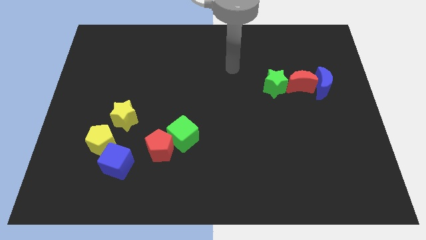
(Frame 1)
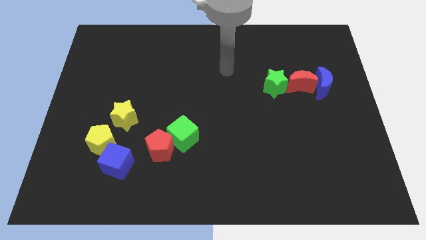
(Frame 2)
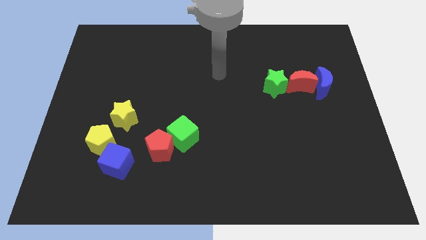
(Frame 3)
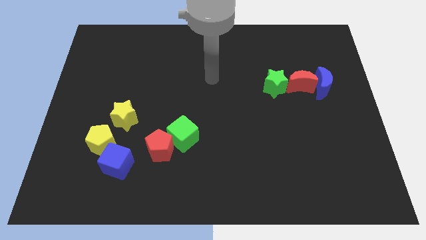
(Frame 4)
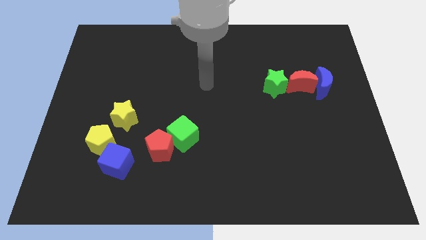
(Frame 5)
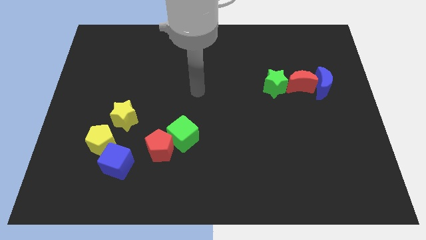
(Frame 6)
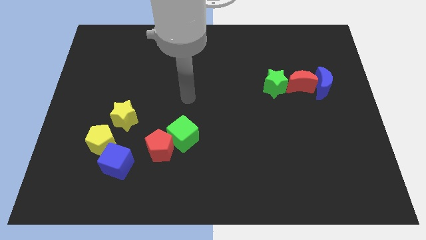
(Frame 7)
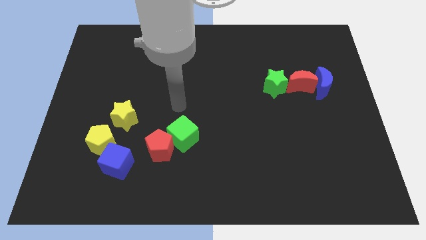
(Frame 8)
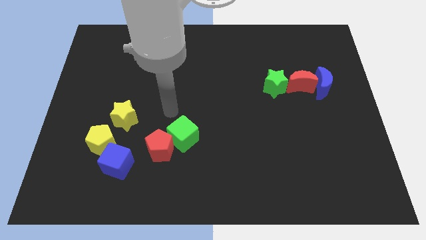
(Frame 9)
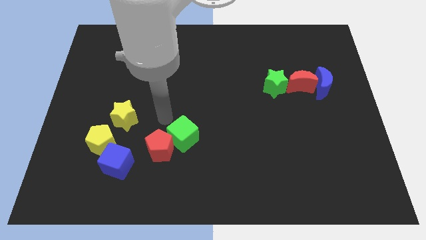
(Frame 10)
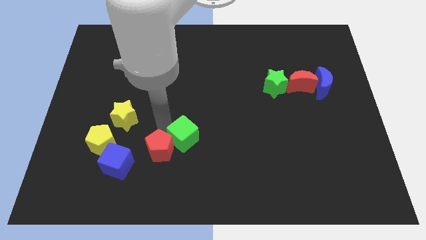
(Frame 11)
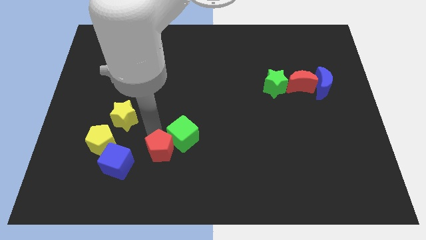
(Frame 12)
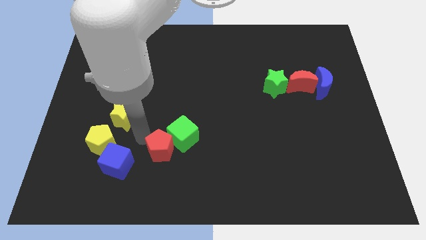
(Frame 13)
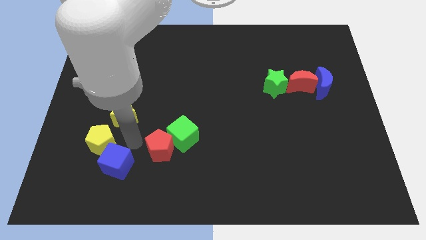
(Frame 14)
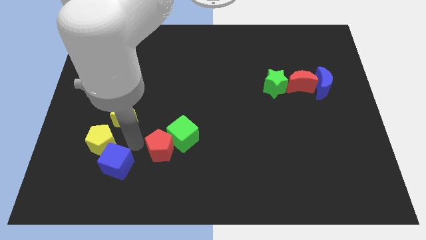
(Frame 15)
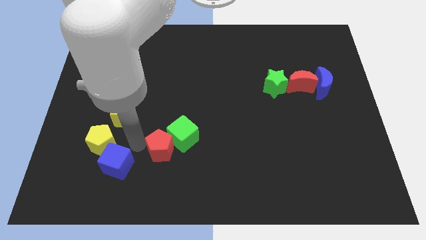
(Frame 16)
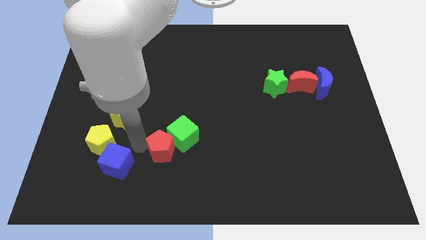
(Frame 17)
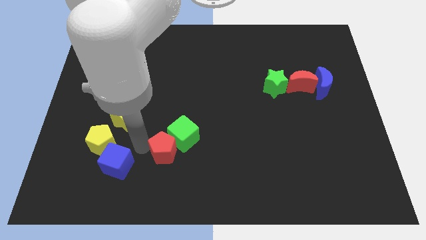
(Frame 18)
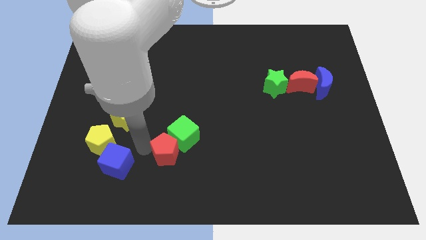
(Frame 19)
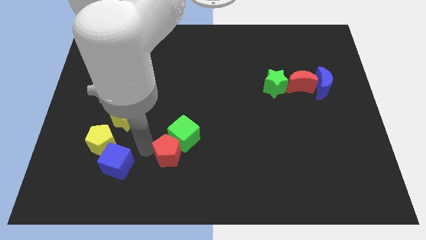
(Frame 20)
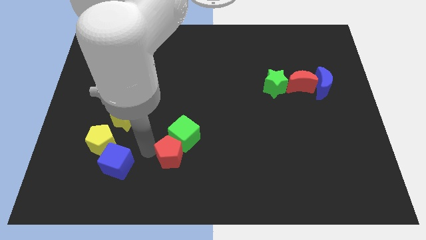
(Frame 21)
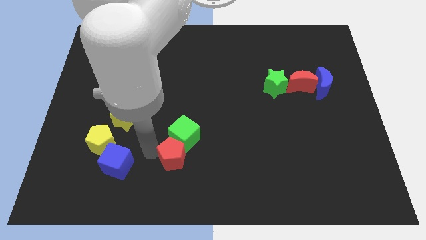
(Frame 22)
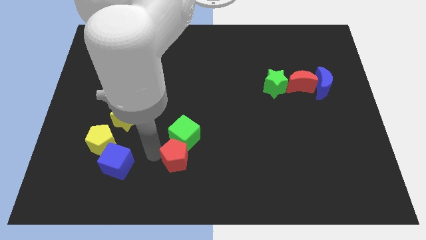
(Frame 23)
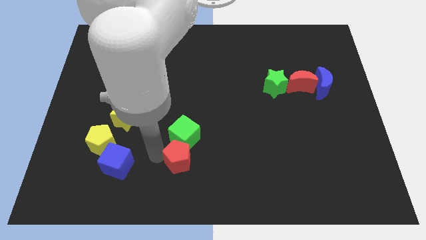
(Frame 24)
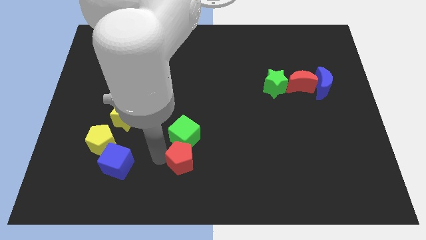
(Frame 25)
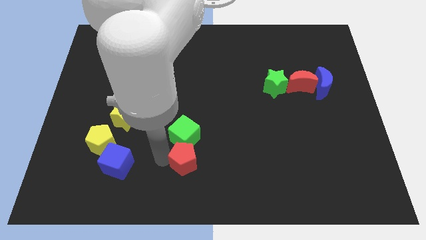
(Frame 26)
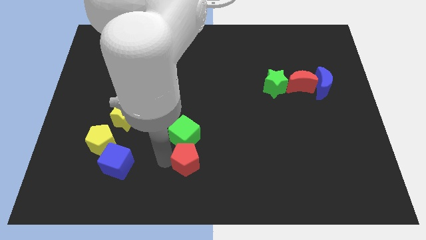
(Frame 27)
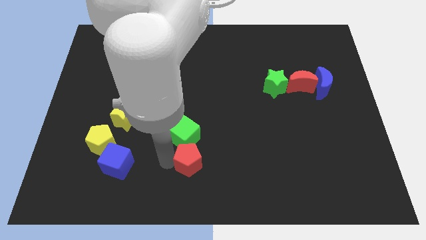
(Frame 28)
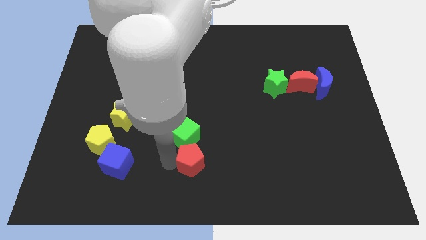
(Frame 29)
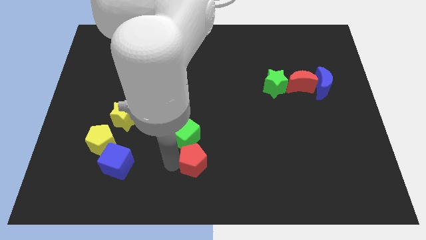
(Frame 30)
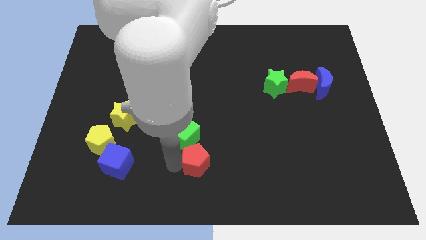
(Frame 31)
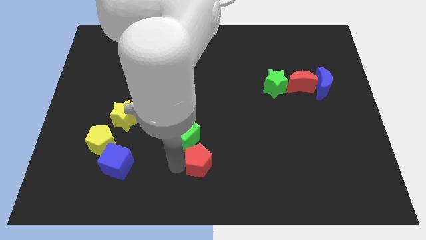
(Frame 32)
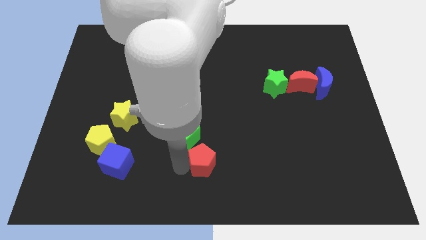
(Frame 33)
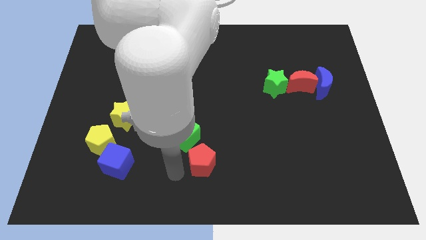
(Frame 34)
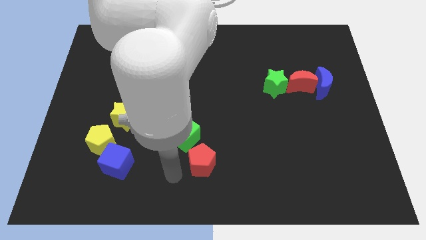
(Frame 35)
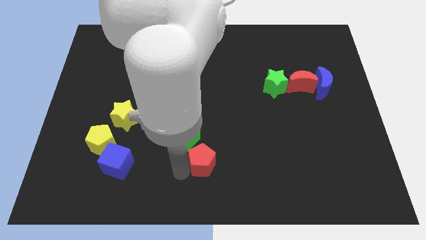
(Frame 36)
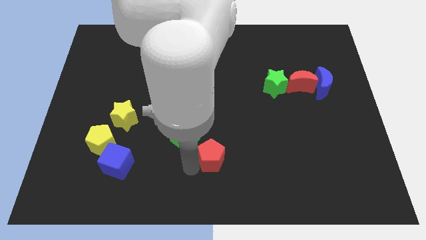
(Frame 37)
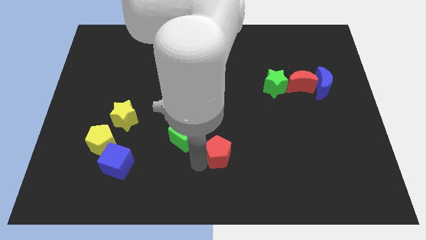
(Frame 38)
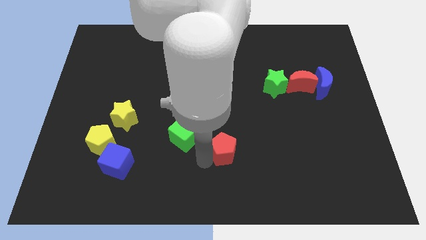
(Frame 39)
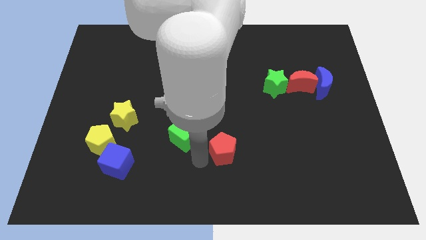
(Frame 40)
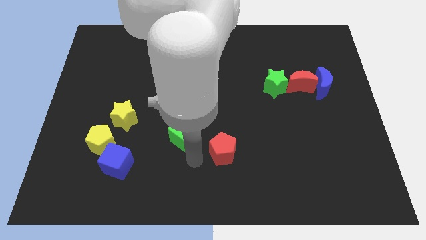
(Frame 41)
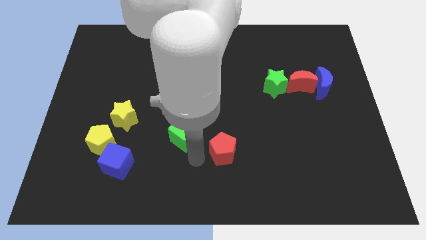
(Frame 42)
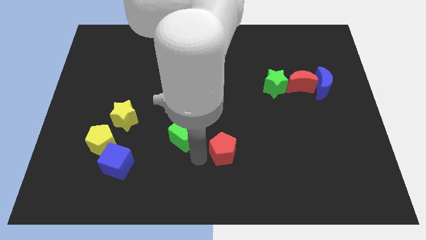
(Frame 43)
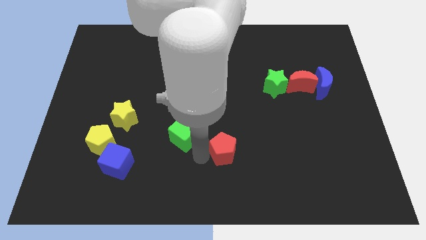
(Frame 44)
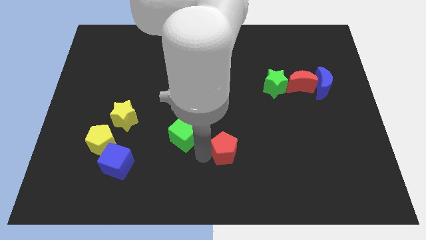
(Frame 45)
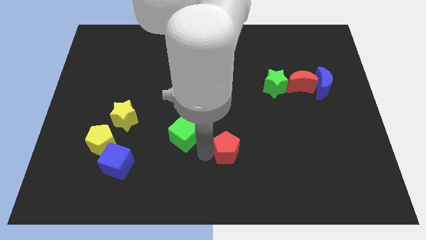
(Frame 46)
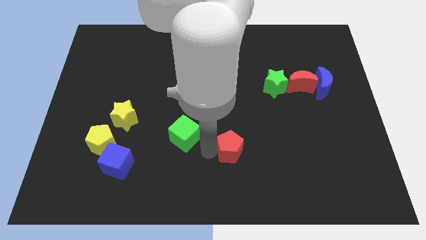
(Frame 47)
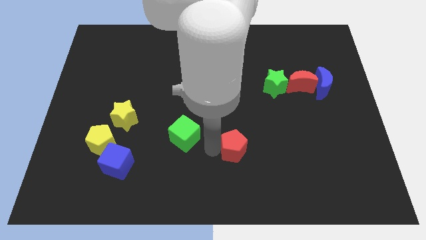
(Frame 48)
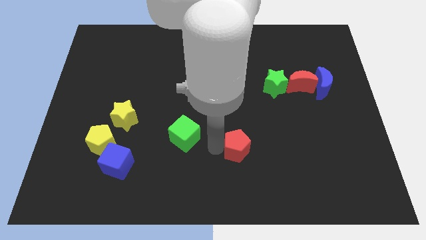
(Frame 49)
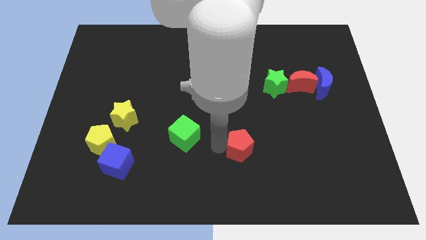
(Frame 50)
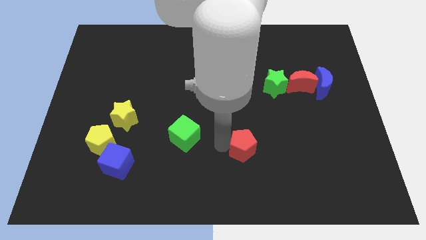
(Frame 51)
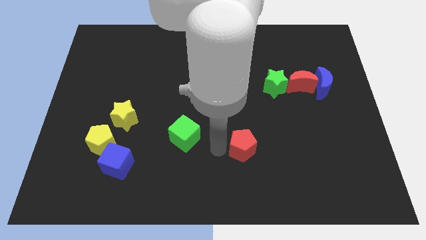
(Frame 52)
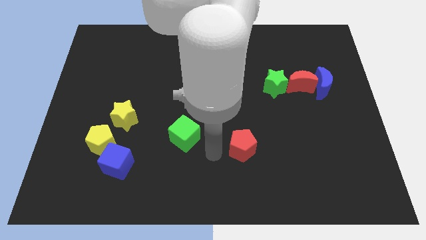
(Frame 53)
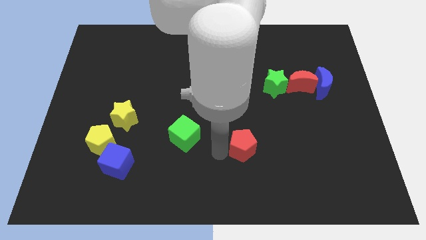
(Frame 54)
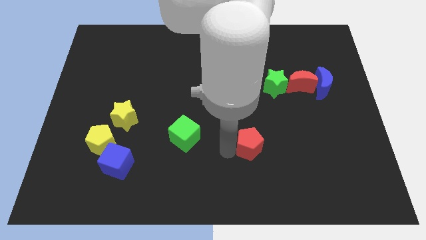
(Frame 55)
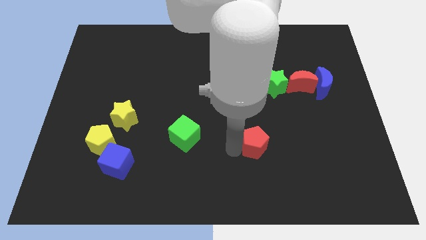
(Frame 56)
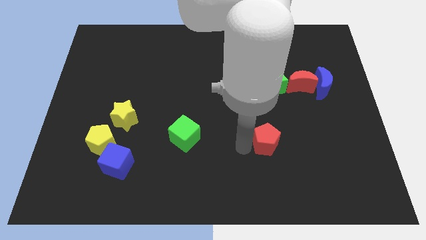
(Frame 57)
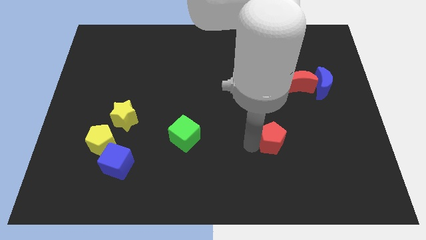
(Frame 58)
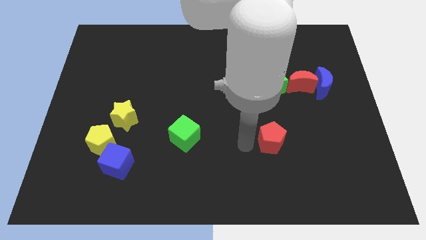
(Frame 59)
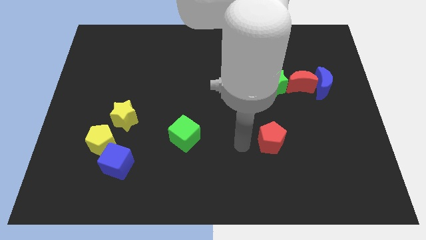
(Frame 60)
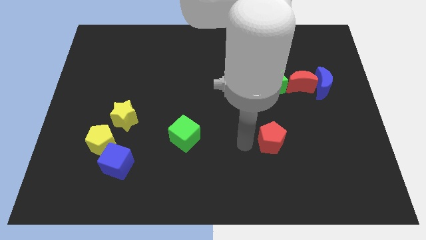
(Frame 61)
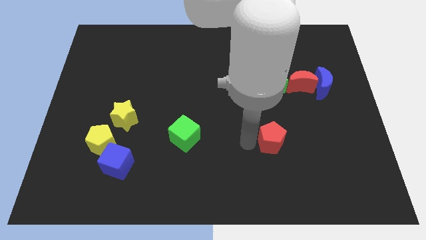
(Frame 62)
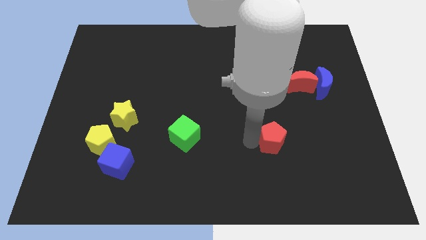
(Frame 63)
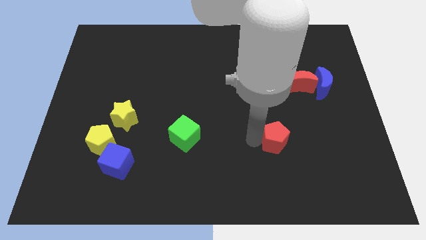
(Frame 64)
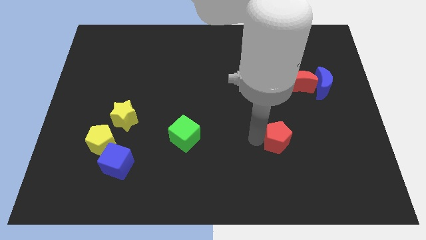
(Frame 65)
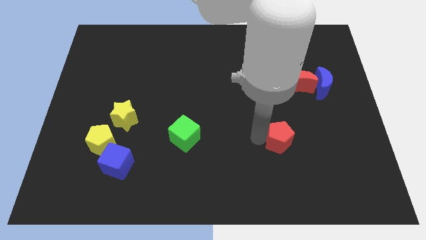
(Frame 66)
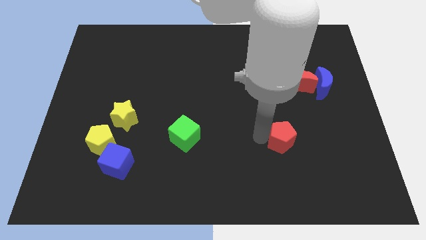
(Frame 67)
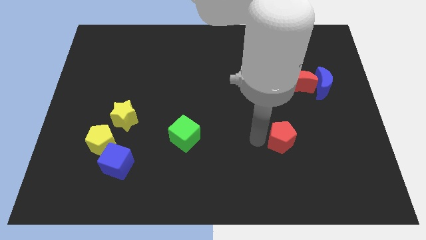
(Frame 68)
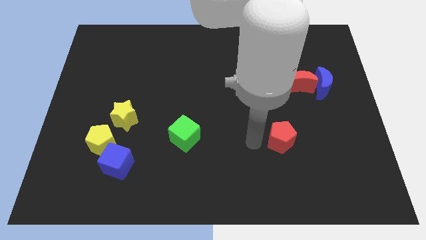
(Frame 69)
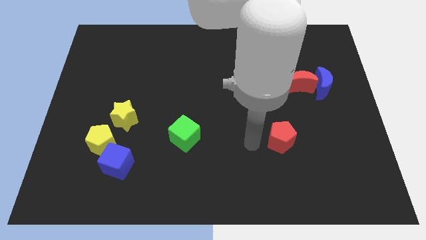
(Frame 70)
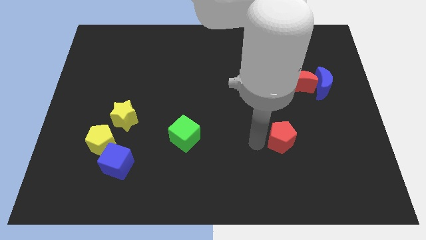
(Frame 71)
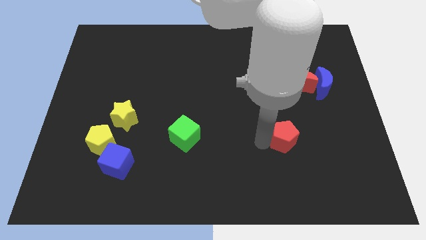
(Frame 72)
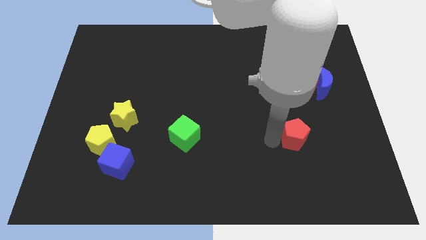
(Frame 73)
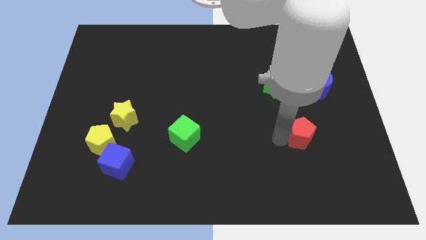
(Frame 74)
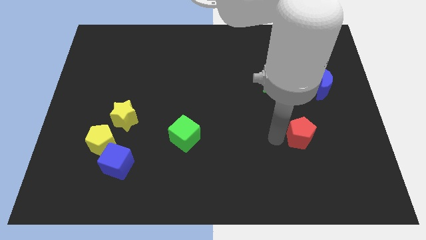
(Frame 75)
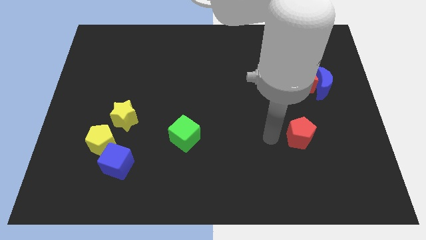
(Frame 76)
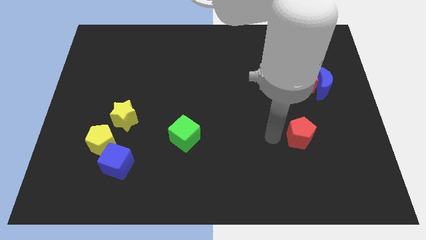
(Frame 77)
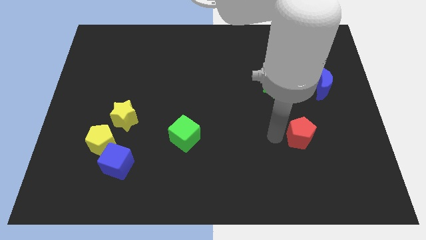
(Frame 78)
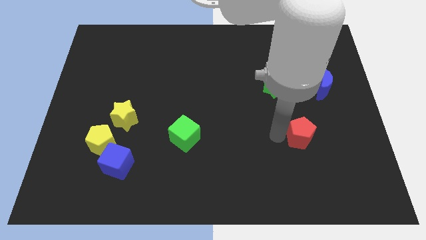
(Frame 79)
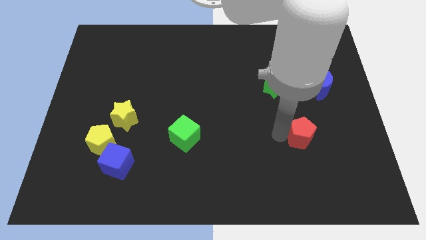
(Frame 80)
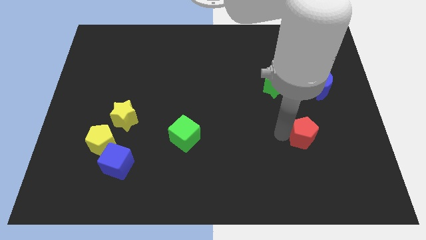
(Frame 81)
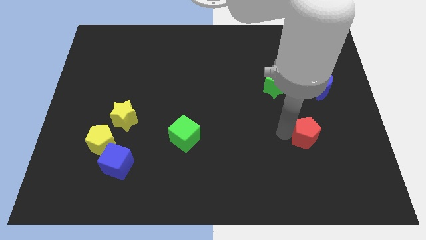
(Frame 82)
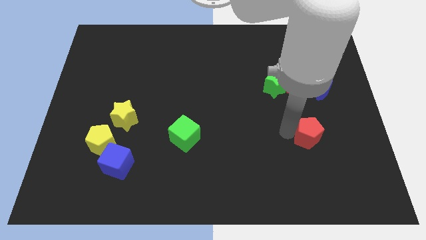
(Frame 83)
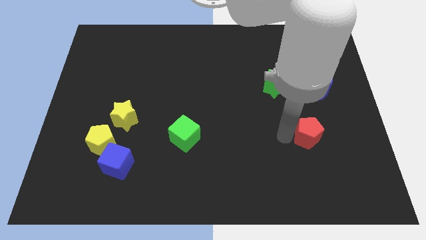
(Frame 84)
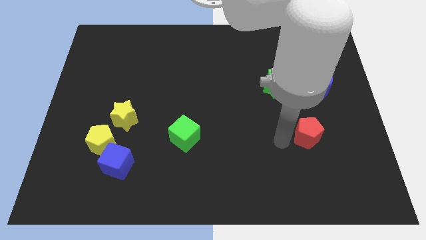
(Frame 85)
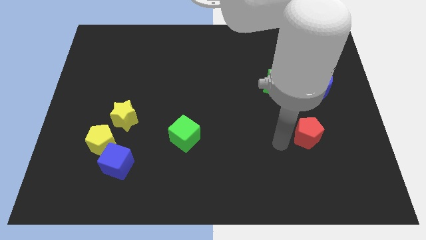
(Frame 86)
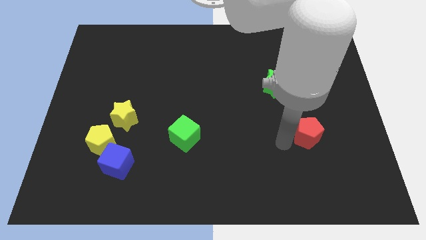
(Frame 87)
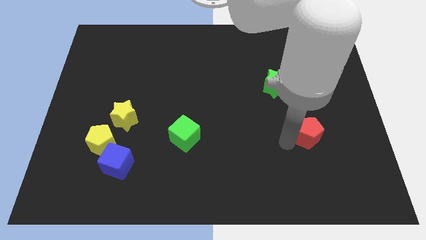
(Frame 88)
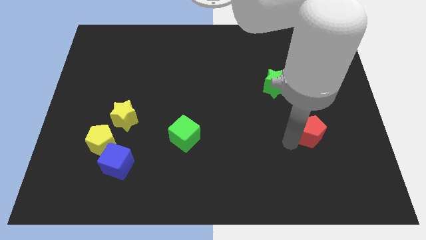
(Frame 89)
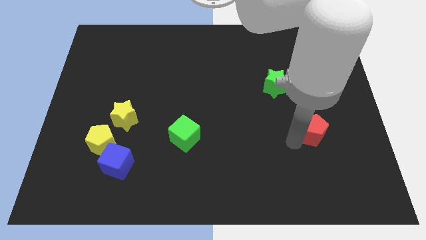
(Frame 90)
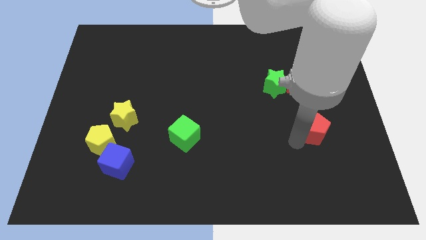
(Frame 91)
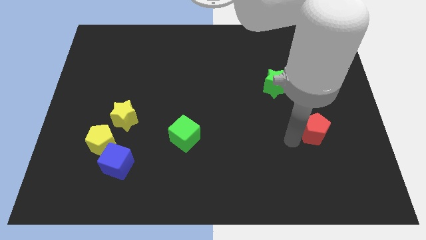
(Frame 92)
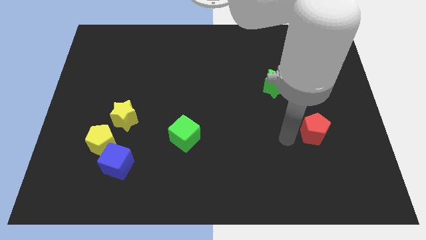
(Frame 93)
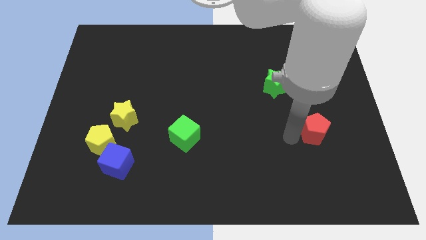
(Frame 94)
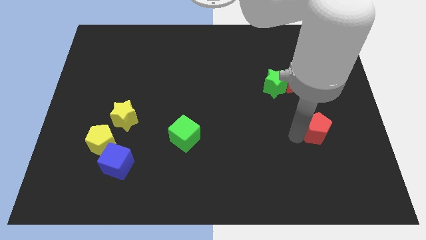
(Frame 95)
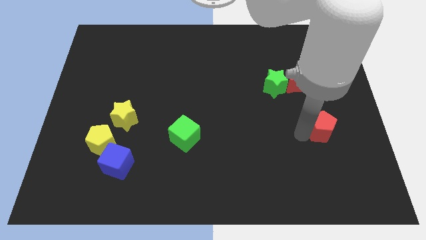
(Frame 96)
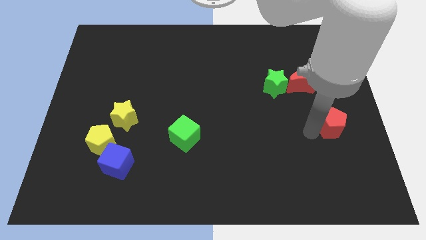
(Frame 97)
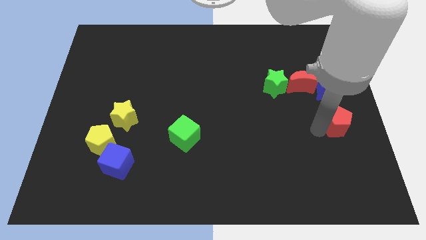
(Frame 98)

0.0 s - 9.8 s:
push the red pentagon to the right side of the board
